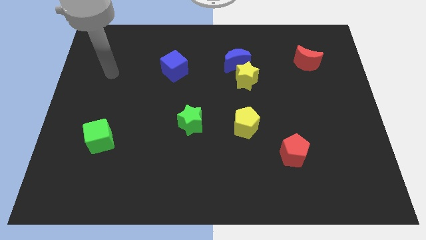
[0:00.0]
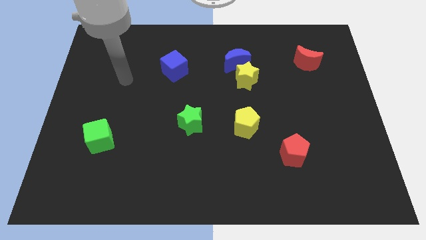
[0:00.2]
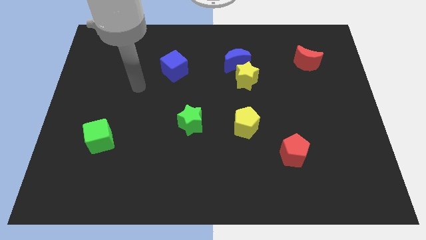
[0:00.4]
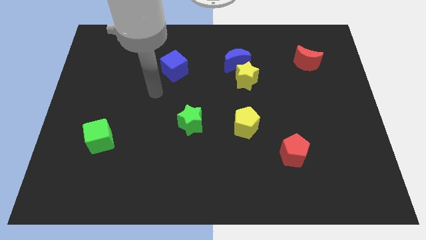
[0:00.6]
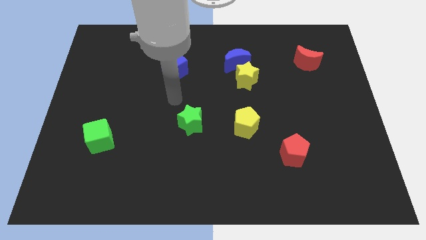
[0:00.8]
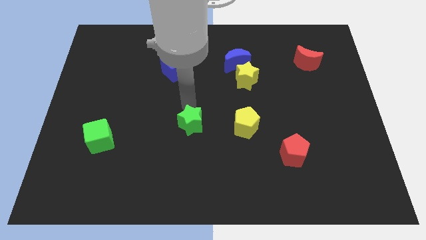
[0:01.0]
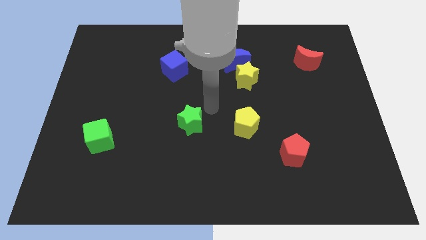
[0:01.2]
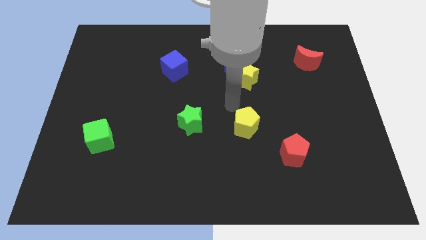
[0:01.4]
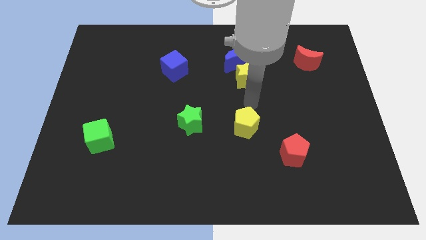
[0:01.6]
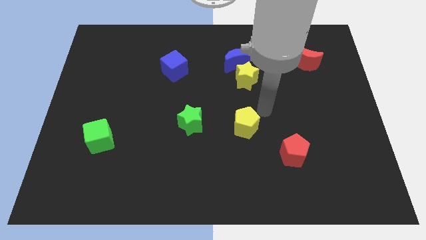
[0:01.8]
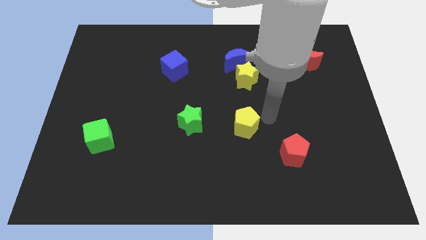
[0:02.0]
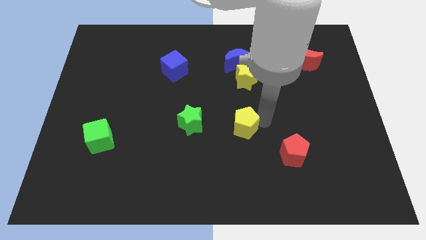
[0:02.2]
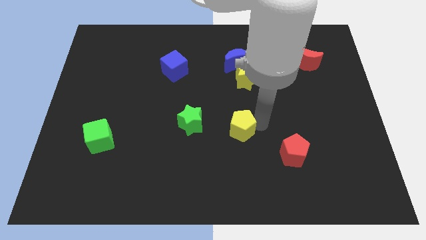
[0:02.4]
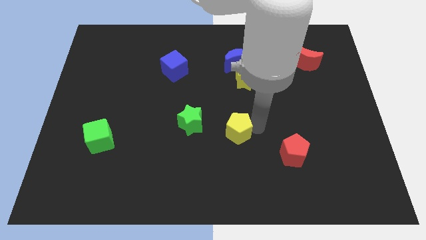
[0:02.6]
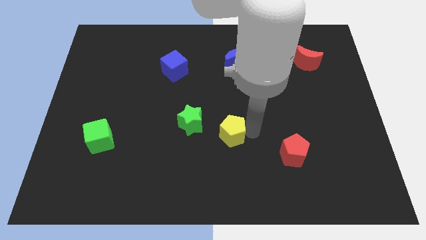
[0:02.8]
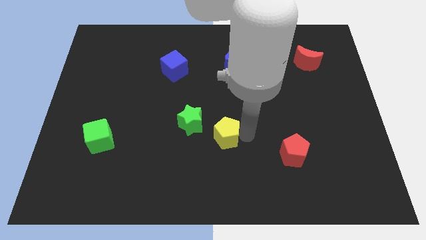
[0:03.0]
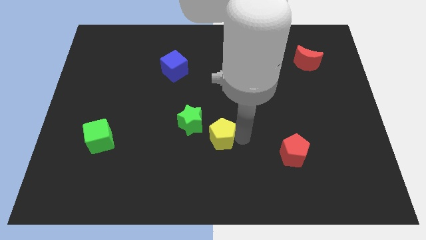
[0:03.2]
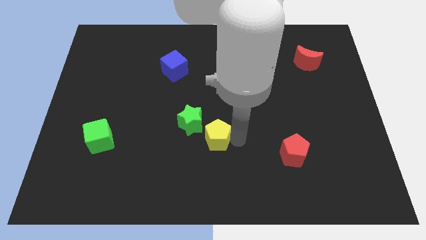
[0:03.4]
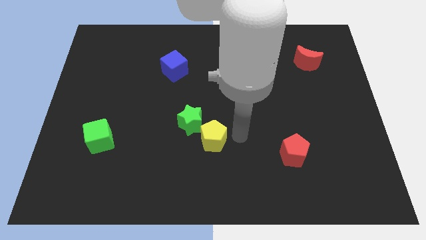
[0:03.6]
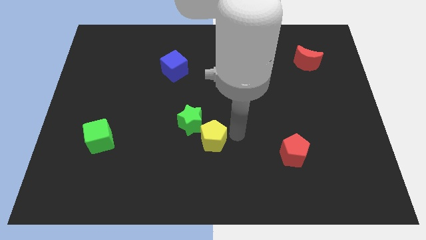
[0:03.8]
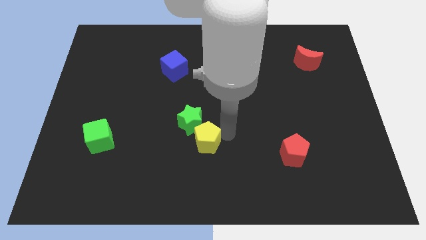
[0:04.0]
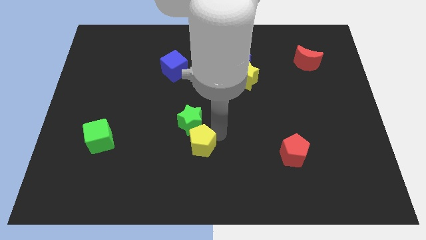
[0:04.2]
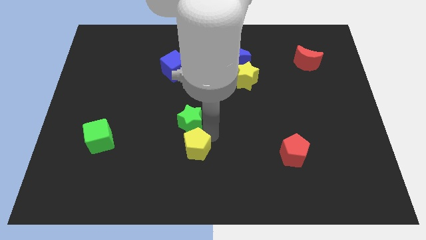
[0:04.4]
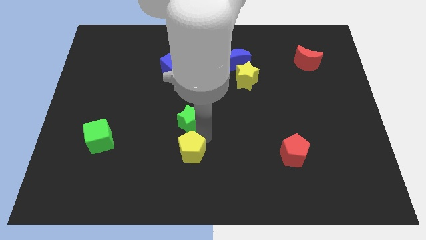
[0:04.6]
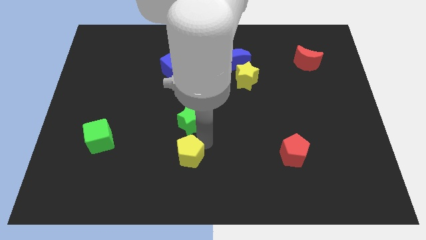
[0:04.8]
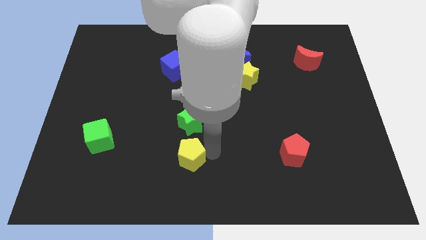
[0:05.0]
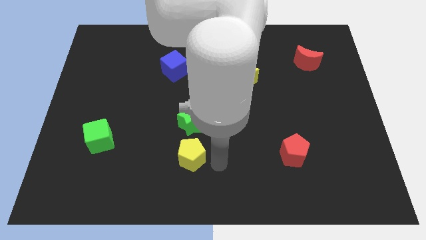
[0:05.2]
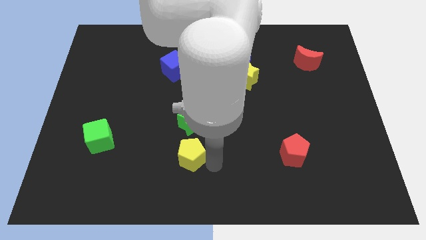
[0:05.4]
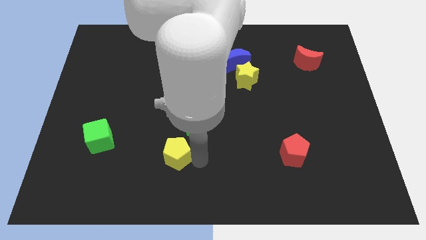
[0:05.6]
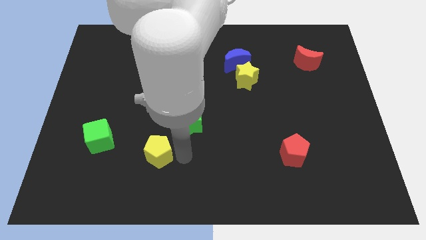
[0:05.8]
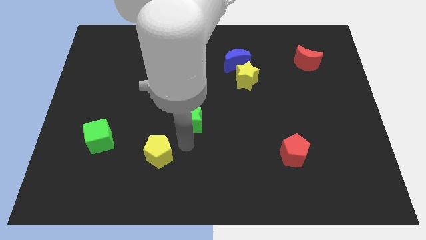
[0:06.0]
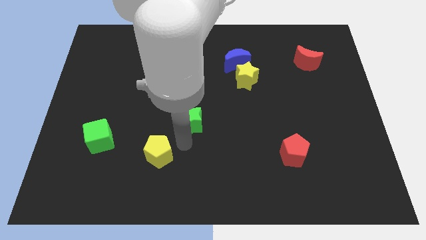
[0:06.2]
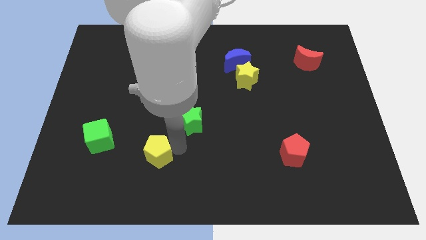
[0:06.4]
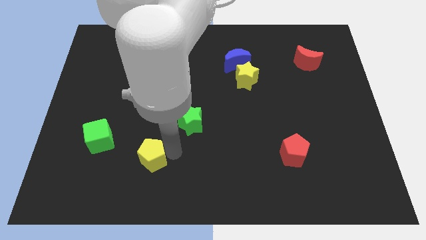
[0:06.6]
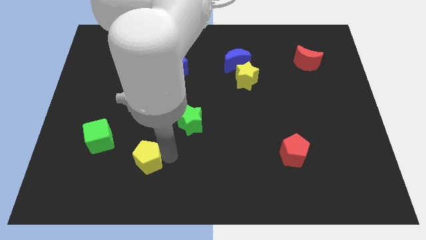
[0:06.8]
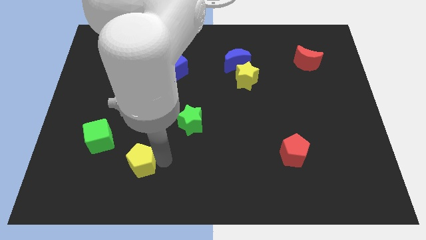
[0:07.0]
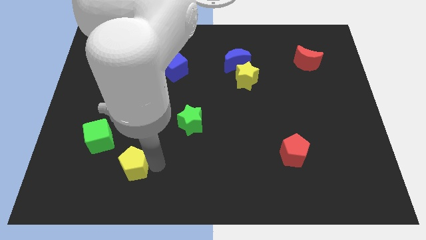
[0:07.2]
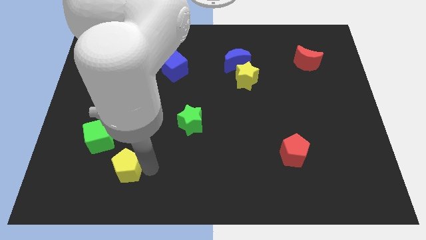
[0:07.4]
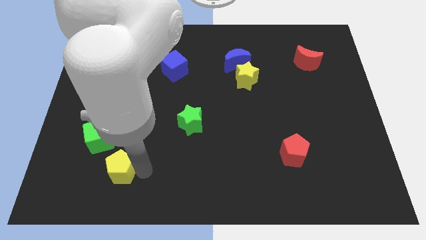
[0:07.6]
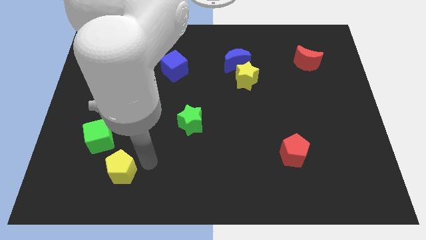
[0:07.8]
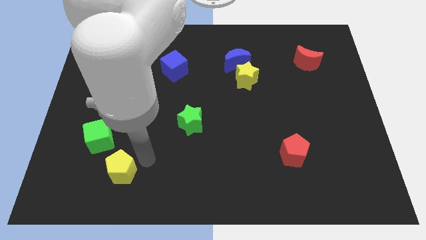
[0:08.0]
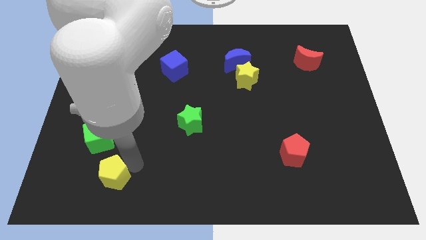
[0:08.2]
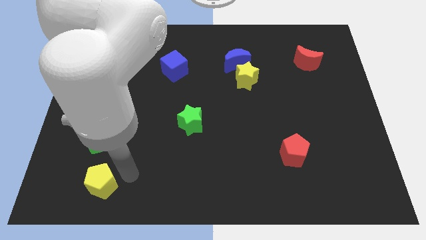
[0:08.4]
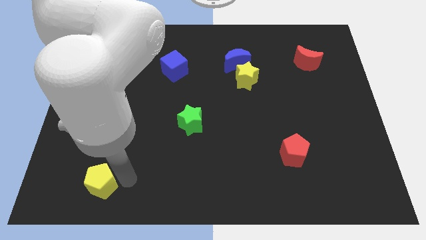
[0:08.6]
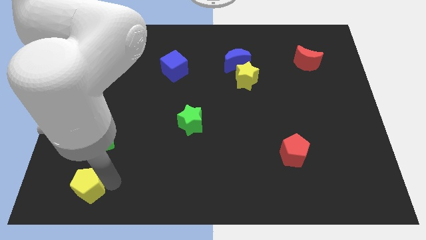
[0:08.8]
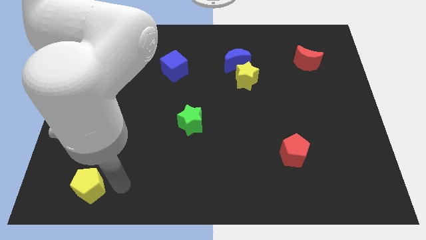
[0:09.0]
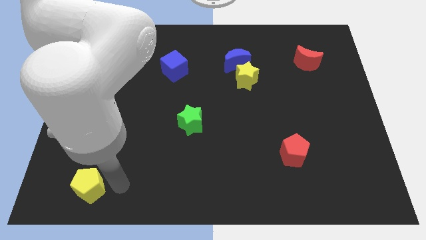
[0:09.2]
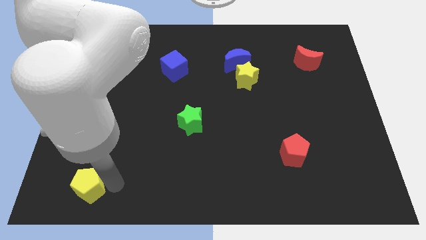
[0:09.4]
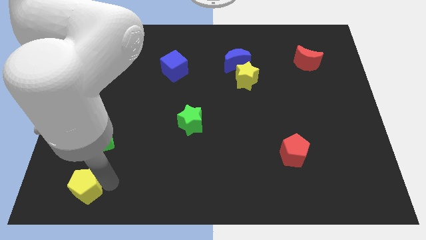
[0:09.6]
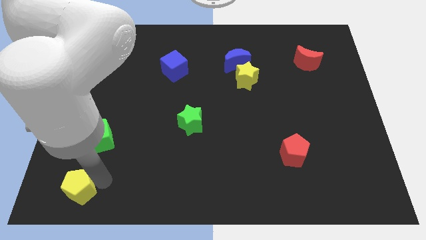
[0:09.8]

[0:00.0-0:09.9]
put the yellow pentagon to the lower left corner

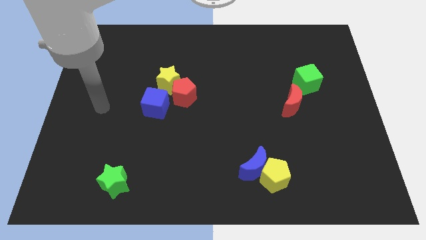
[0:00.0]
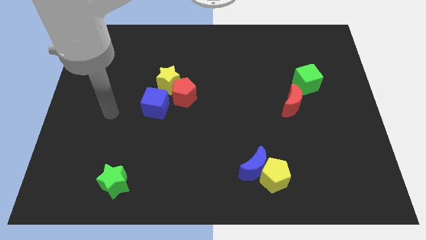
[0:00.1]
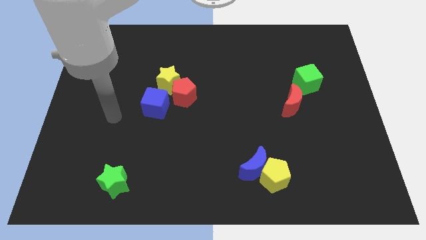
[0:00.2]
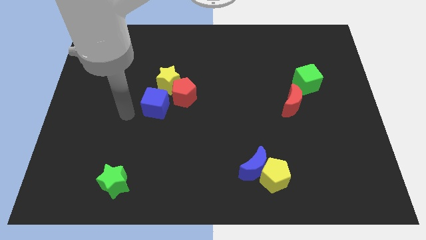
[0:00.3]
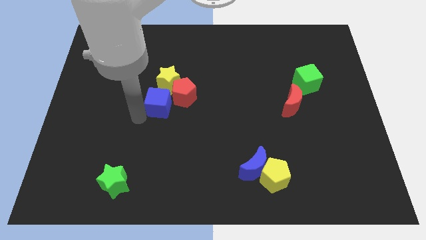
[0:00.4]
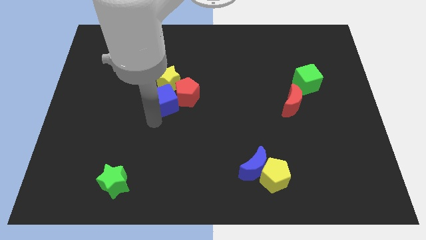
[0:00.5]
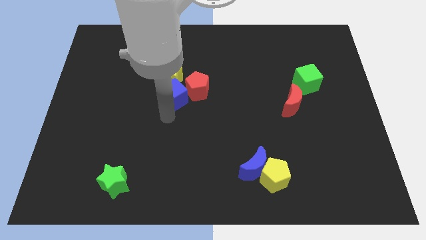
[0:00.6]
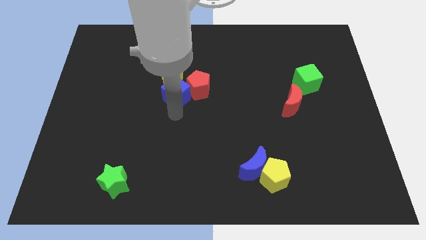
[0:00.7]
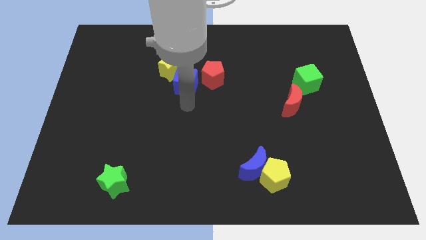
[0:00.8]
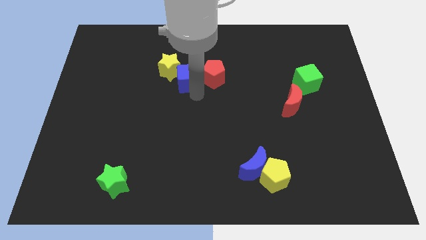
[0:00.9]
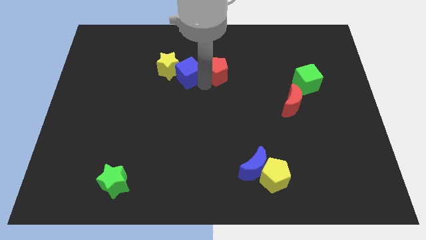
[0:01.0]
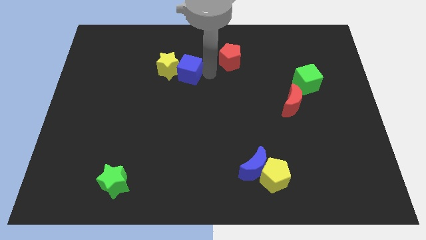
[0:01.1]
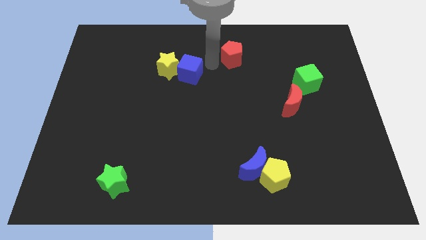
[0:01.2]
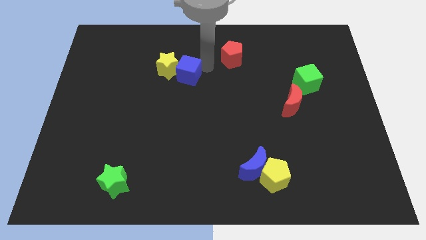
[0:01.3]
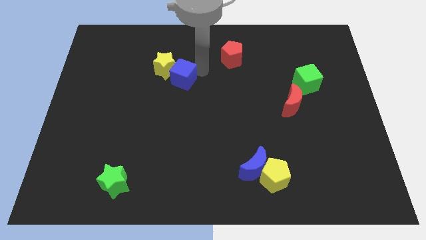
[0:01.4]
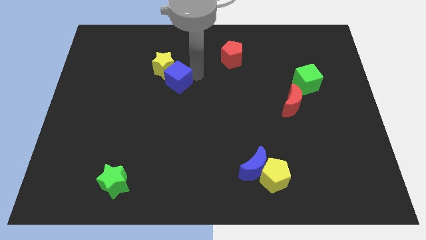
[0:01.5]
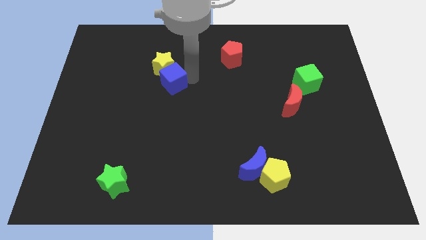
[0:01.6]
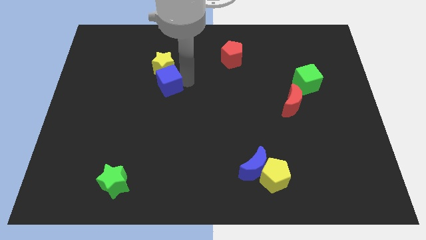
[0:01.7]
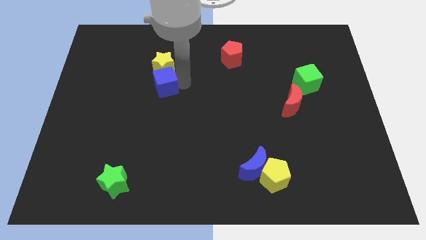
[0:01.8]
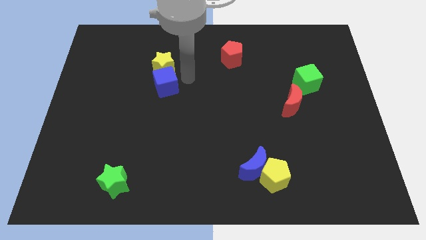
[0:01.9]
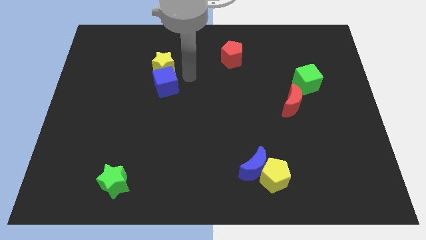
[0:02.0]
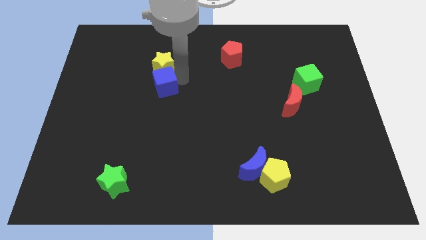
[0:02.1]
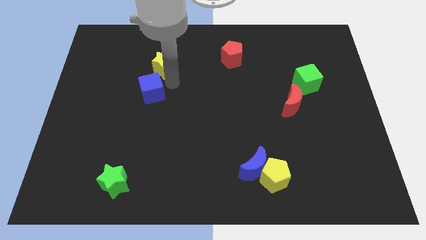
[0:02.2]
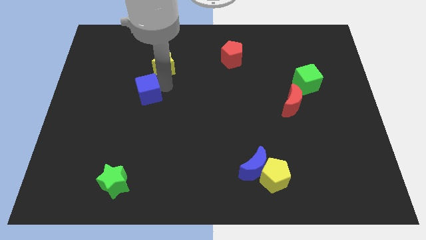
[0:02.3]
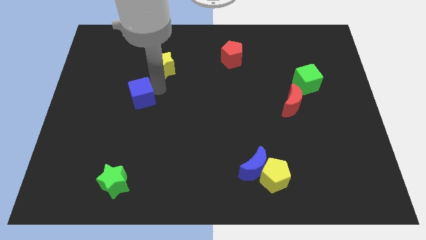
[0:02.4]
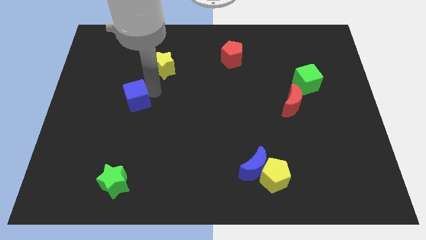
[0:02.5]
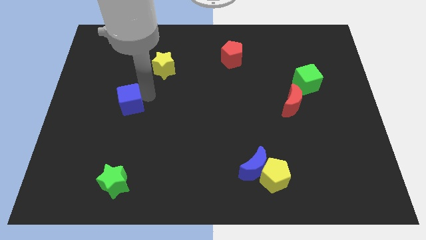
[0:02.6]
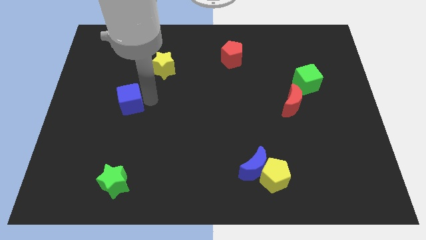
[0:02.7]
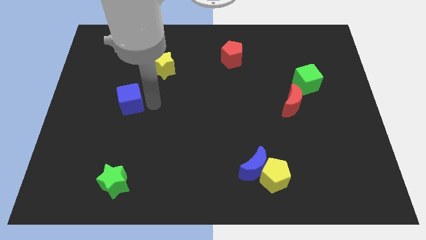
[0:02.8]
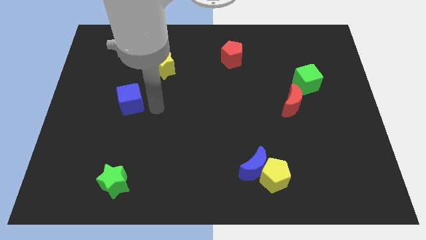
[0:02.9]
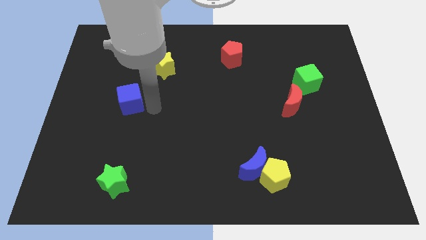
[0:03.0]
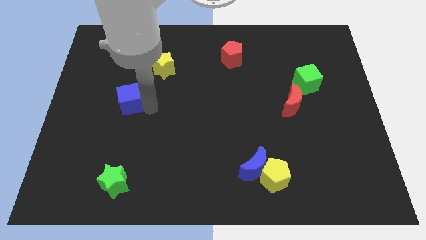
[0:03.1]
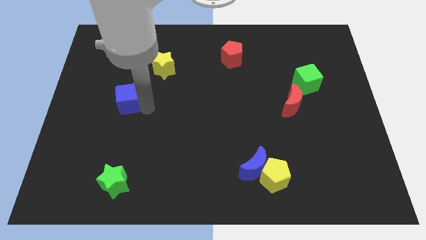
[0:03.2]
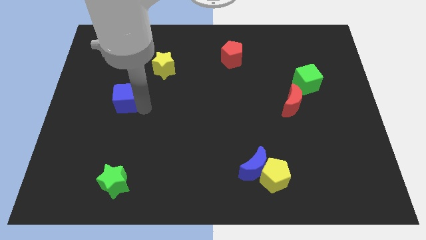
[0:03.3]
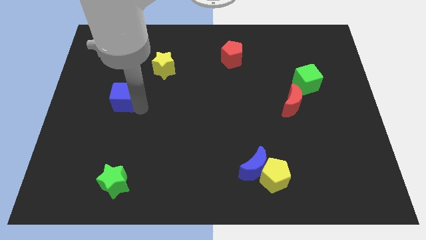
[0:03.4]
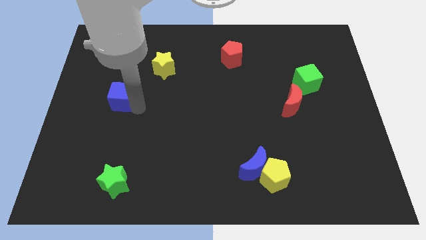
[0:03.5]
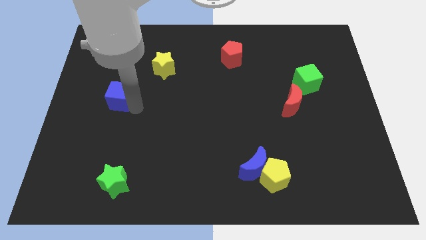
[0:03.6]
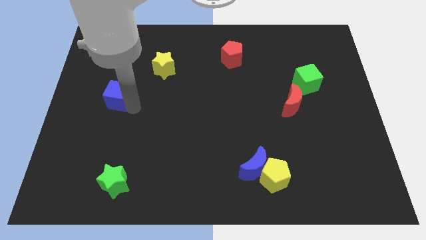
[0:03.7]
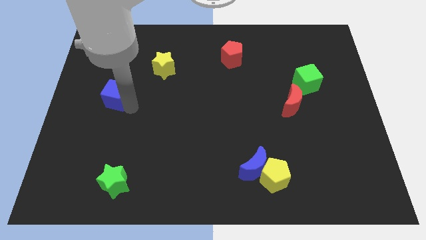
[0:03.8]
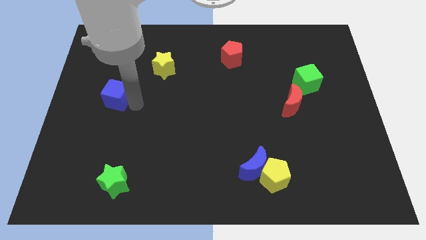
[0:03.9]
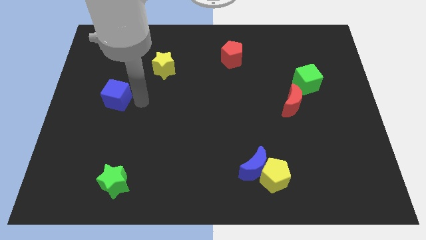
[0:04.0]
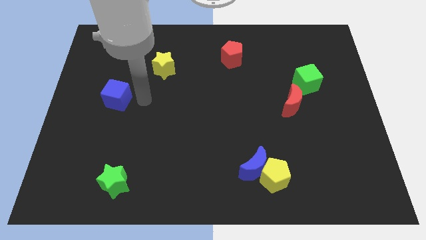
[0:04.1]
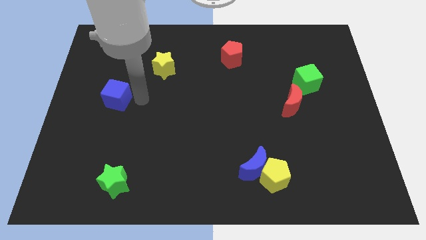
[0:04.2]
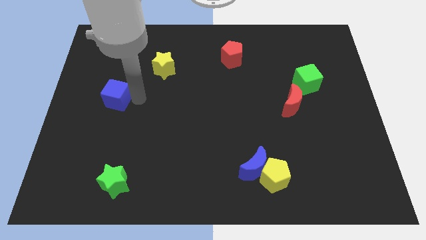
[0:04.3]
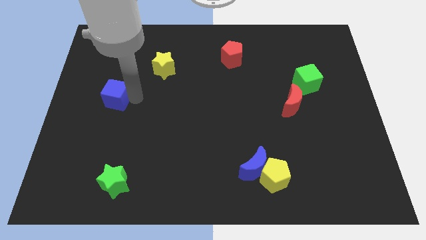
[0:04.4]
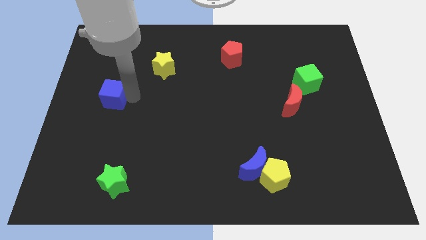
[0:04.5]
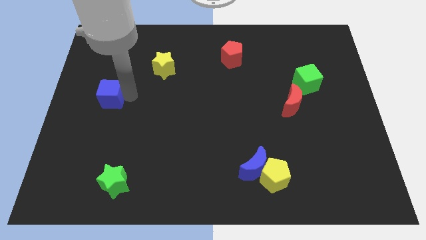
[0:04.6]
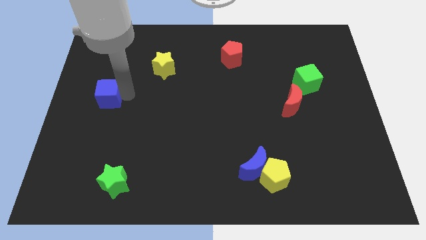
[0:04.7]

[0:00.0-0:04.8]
push the blue cube to the left side
